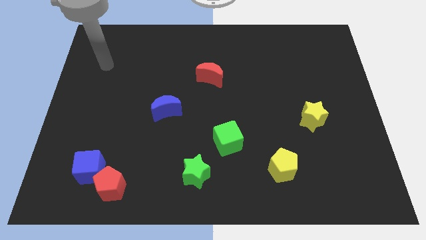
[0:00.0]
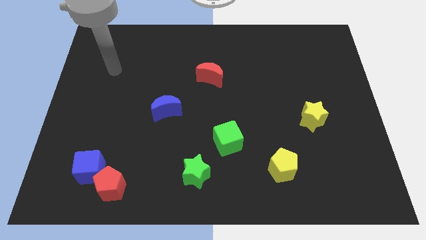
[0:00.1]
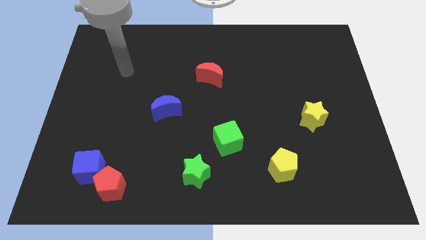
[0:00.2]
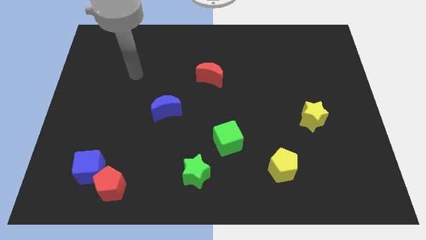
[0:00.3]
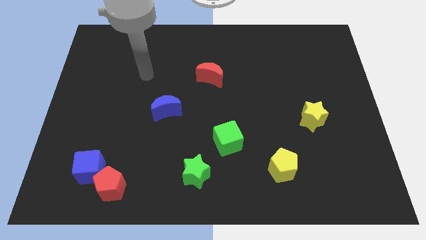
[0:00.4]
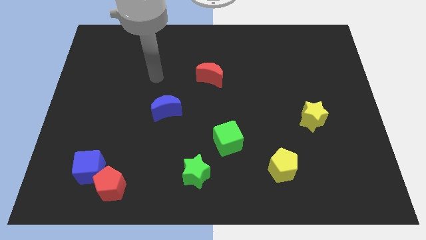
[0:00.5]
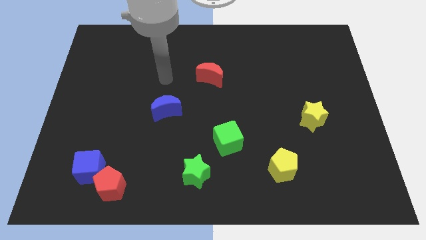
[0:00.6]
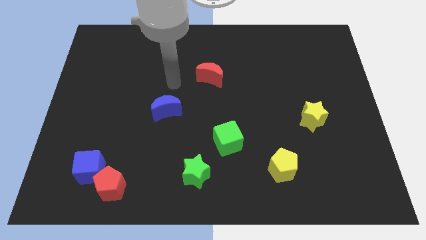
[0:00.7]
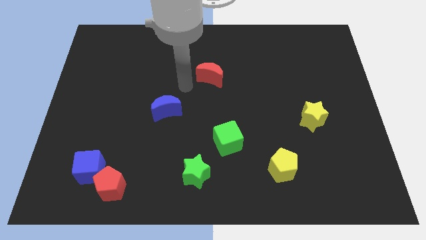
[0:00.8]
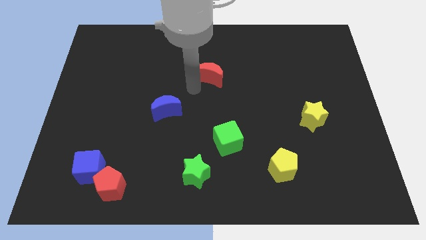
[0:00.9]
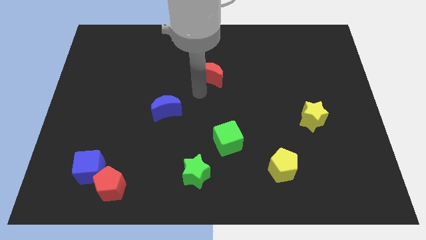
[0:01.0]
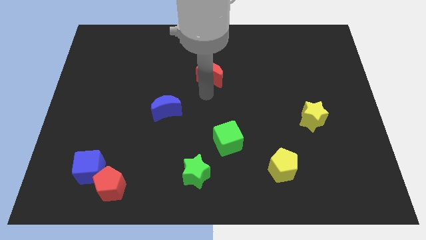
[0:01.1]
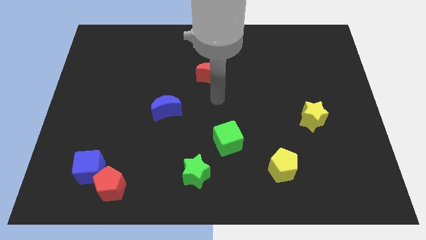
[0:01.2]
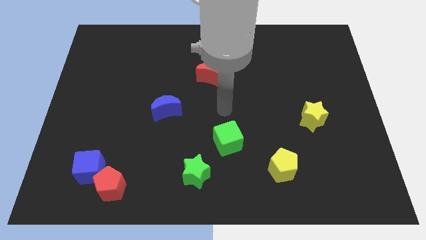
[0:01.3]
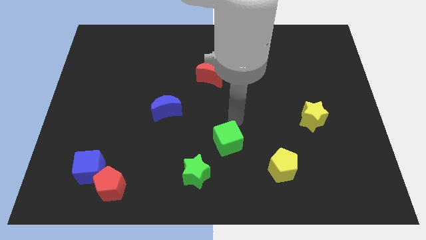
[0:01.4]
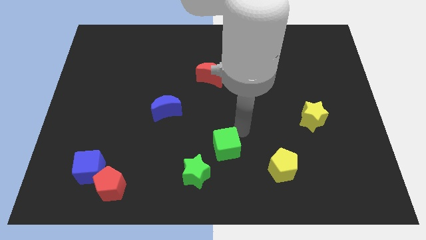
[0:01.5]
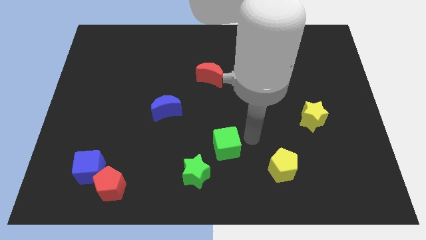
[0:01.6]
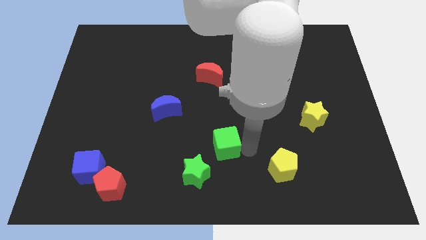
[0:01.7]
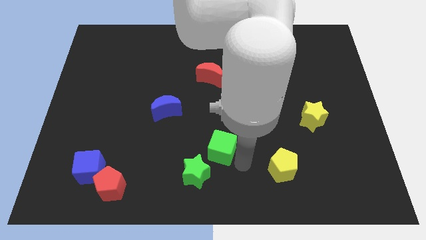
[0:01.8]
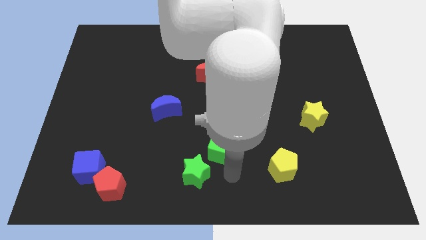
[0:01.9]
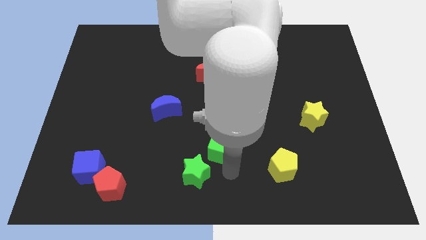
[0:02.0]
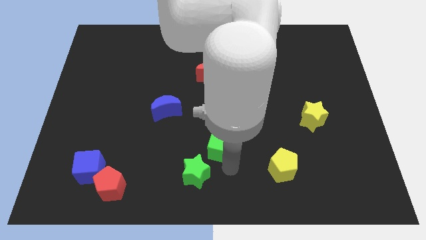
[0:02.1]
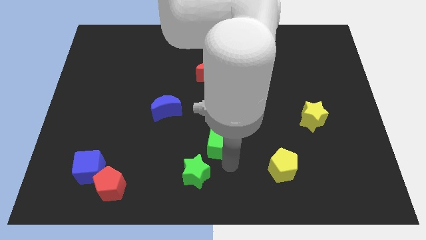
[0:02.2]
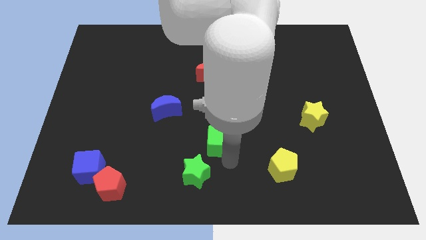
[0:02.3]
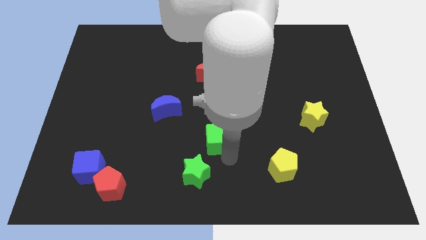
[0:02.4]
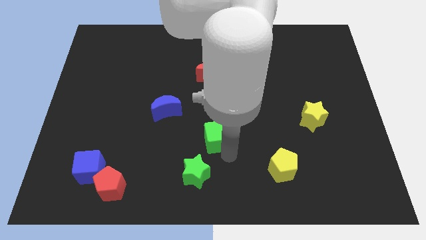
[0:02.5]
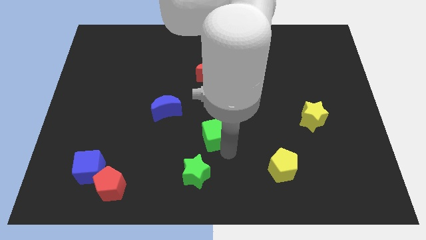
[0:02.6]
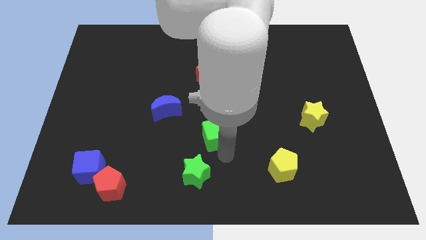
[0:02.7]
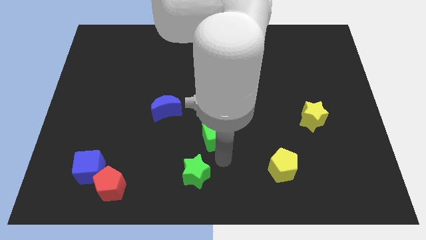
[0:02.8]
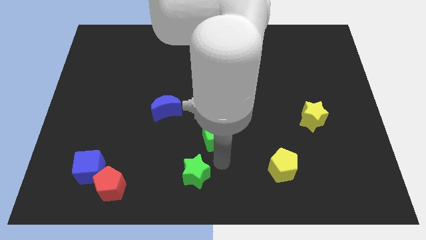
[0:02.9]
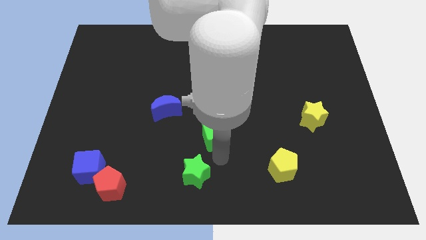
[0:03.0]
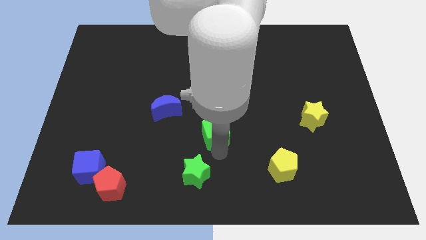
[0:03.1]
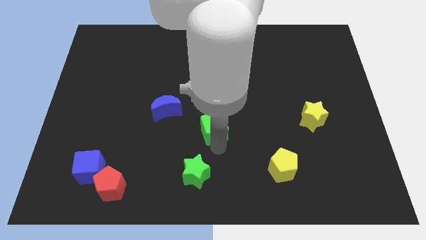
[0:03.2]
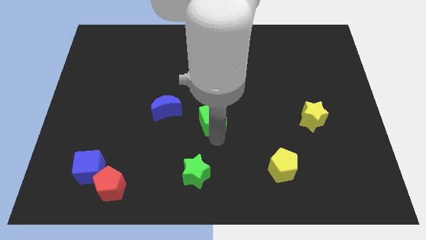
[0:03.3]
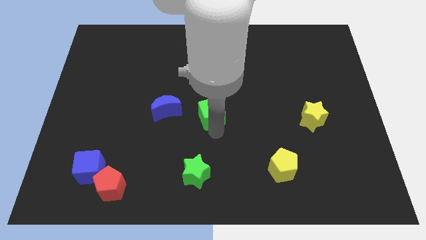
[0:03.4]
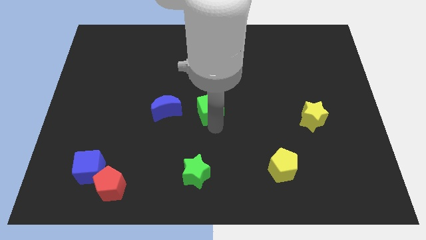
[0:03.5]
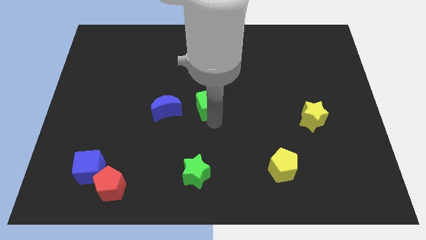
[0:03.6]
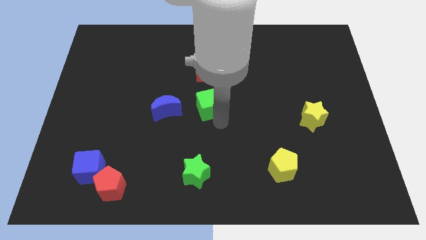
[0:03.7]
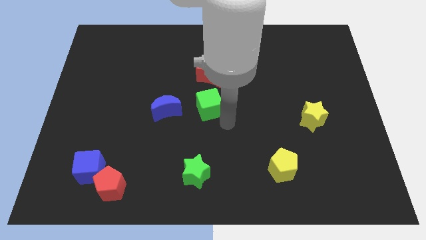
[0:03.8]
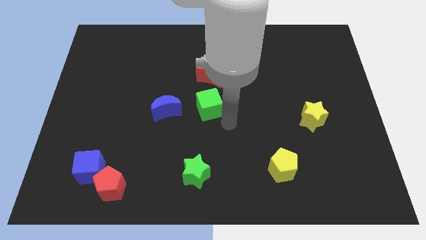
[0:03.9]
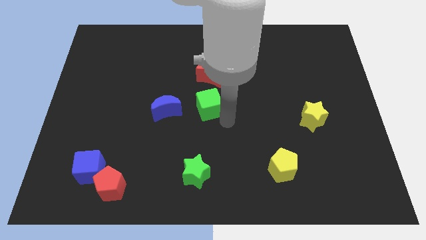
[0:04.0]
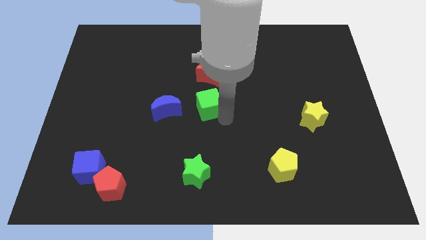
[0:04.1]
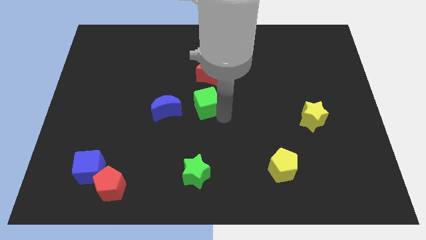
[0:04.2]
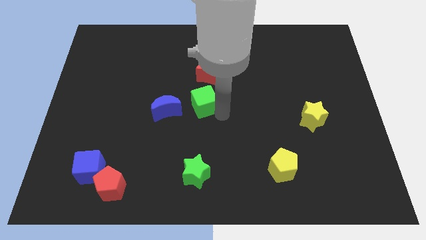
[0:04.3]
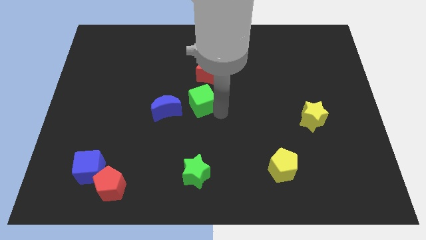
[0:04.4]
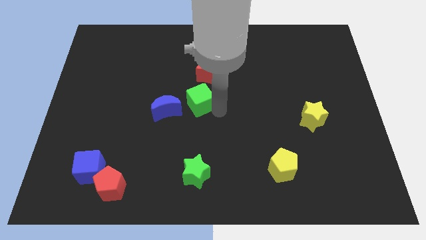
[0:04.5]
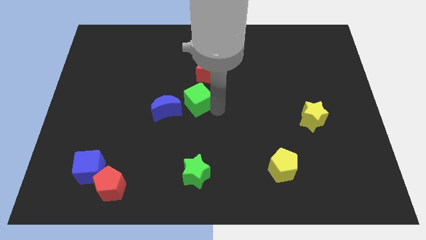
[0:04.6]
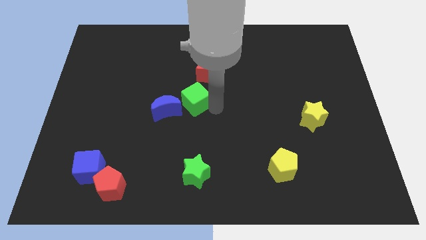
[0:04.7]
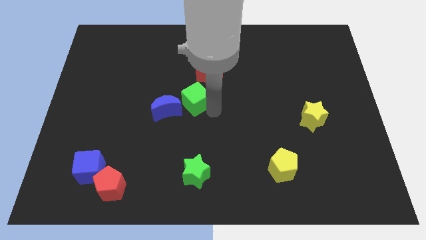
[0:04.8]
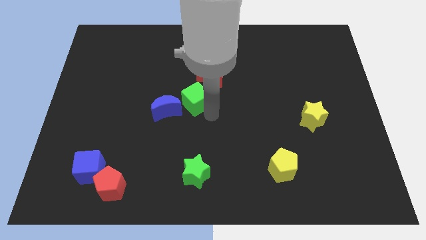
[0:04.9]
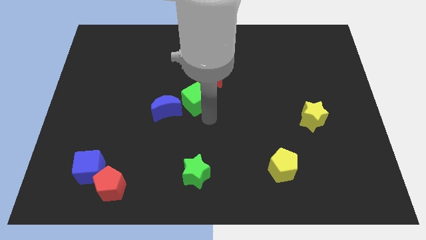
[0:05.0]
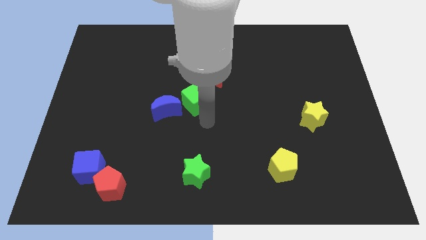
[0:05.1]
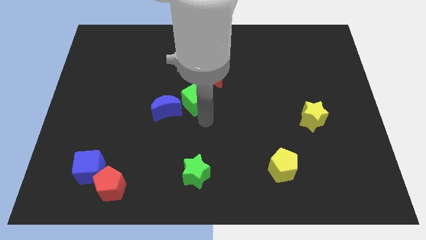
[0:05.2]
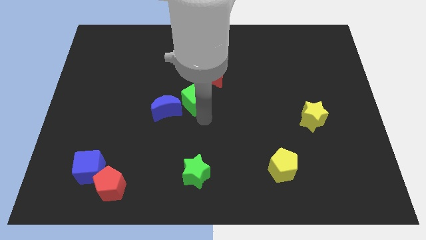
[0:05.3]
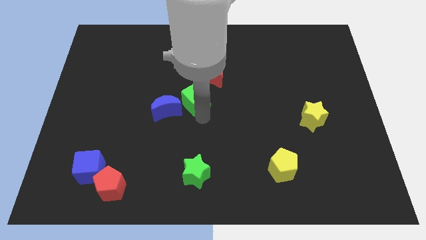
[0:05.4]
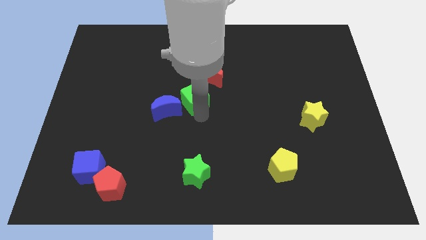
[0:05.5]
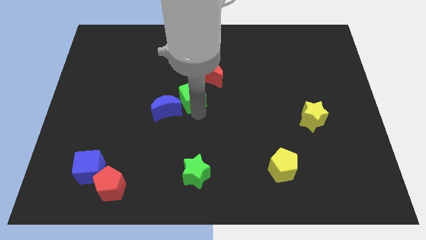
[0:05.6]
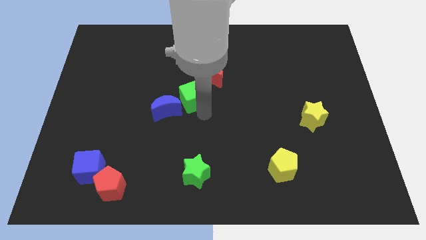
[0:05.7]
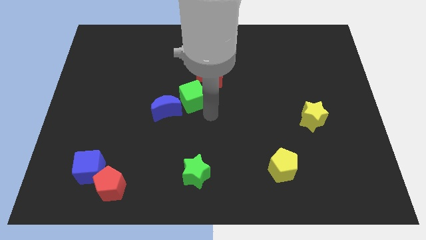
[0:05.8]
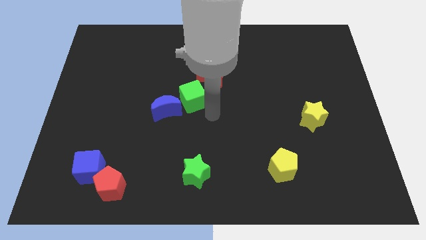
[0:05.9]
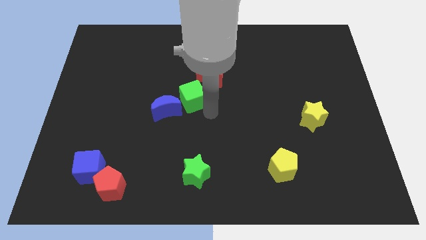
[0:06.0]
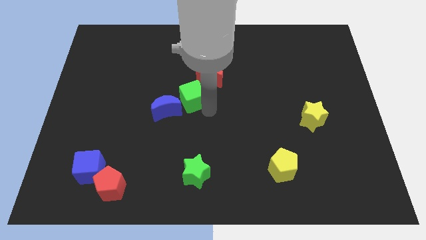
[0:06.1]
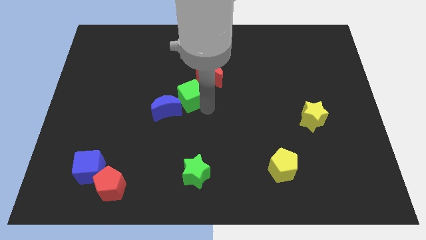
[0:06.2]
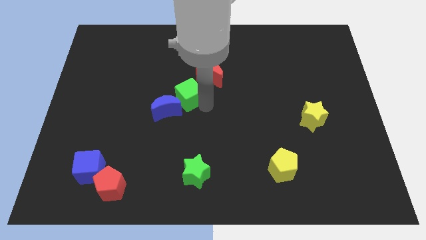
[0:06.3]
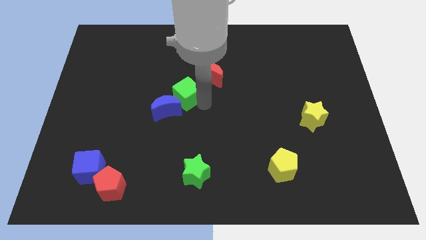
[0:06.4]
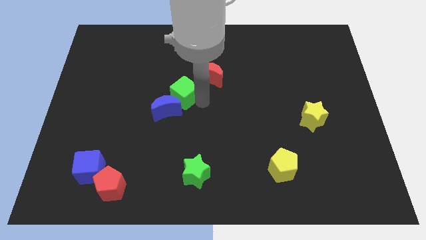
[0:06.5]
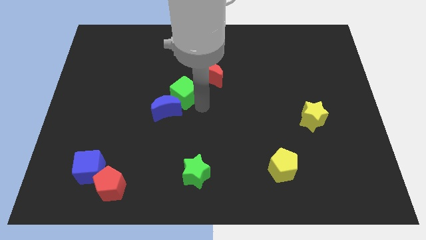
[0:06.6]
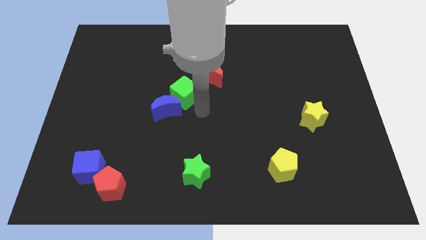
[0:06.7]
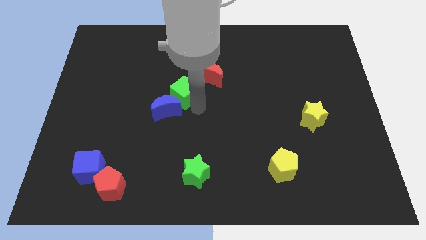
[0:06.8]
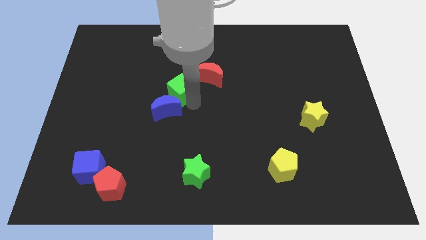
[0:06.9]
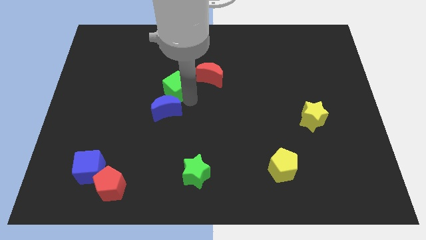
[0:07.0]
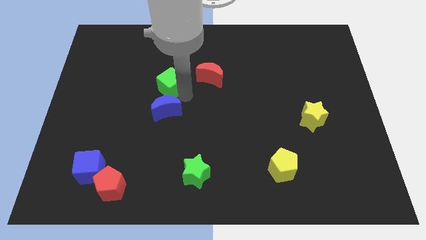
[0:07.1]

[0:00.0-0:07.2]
push the green cube diagonally upwards and left

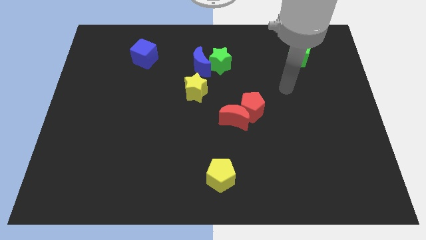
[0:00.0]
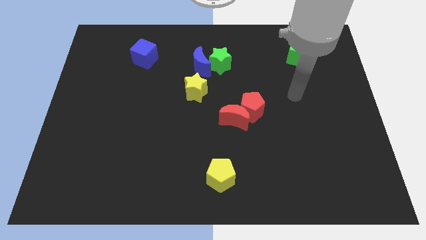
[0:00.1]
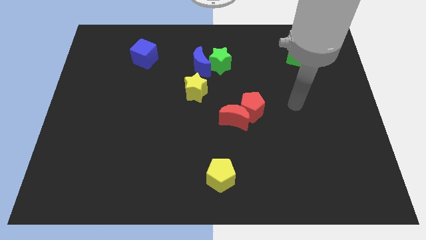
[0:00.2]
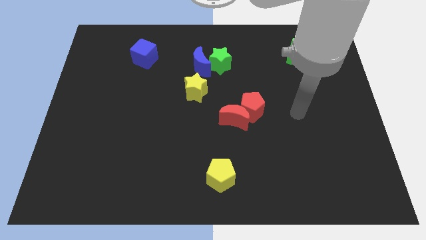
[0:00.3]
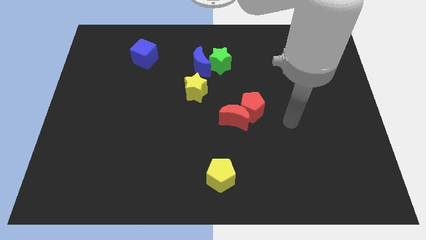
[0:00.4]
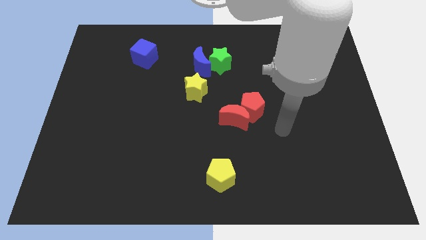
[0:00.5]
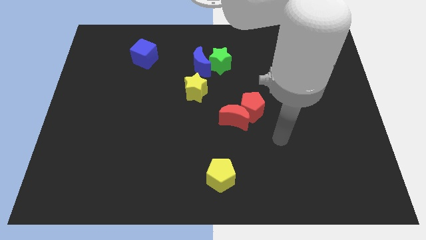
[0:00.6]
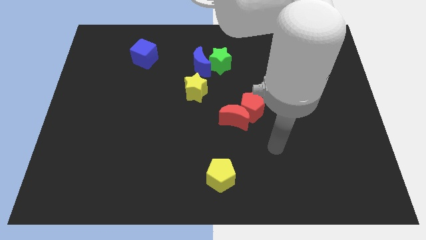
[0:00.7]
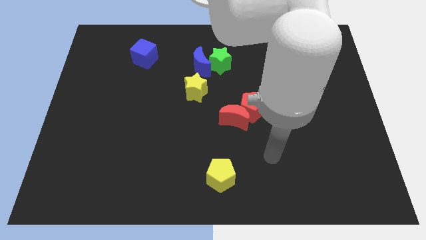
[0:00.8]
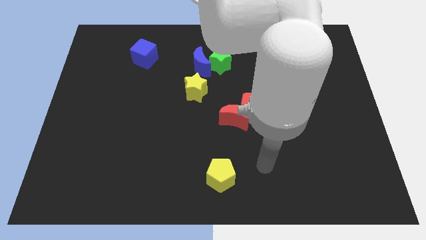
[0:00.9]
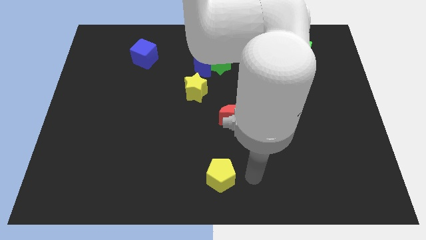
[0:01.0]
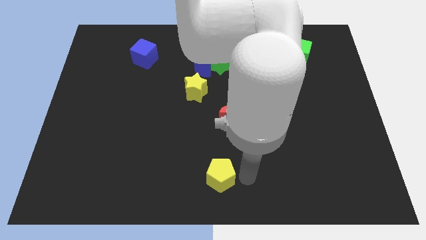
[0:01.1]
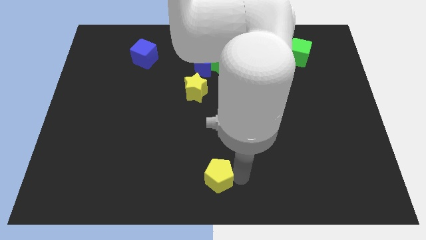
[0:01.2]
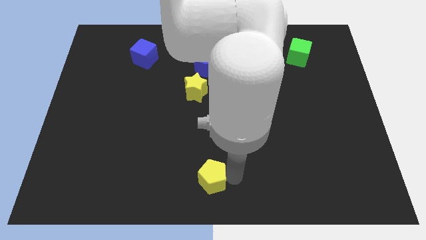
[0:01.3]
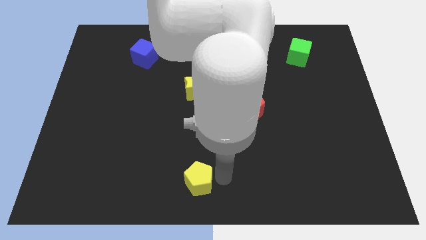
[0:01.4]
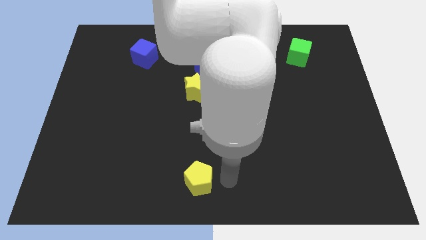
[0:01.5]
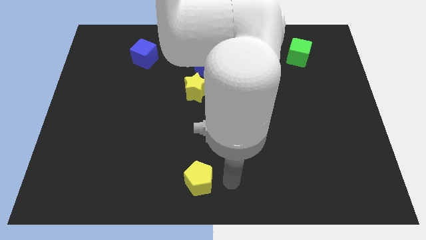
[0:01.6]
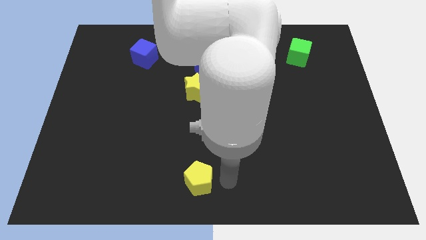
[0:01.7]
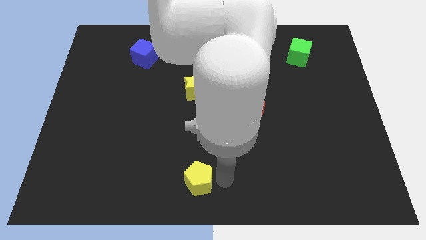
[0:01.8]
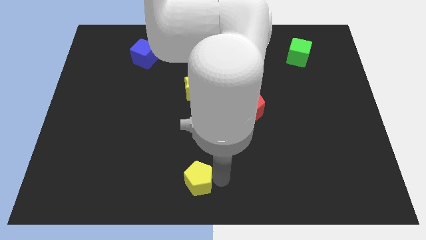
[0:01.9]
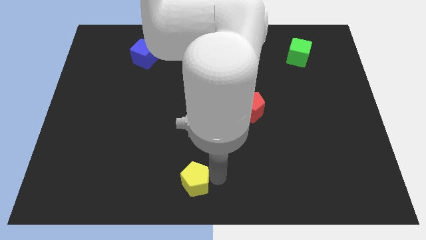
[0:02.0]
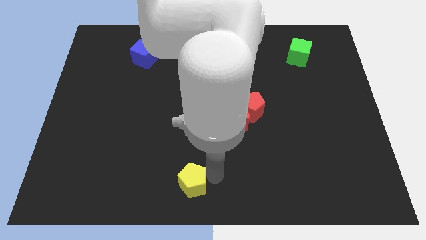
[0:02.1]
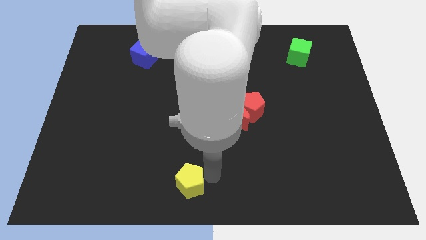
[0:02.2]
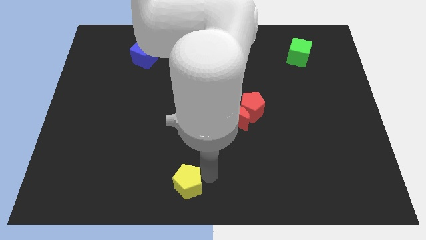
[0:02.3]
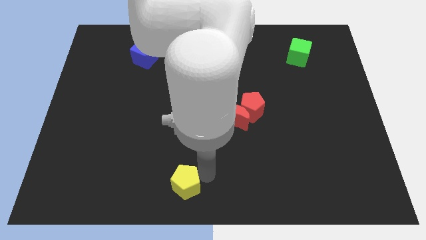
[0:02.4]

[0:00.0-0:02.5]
slide the yellow pentagon somewhat left
